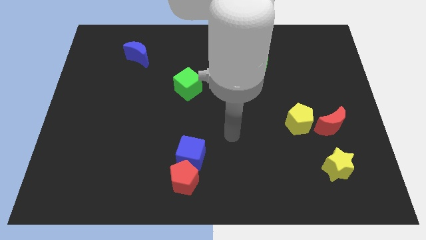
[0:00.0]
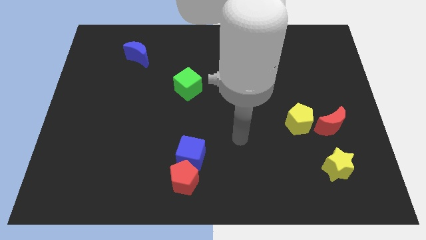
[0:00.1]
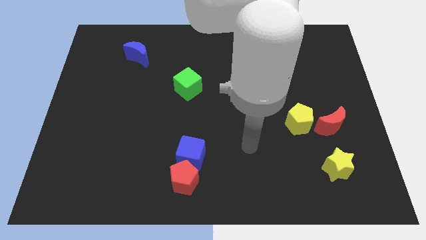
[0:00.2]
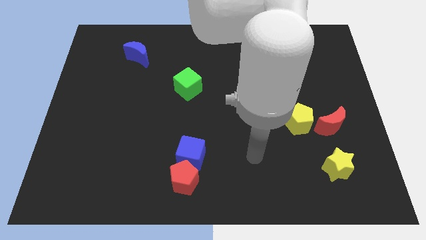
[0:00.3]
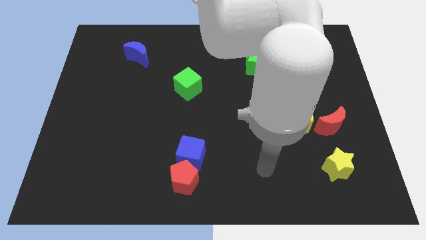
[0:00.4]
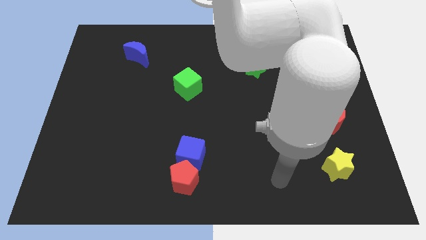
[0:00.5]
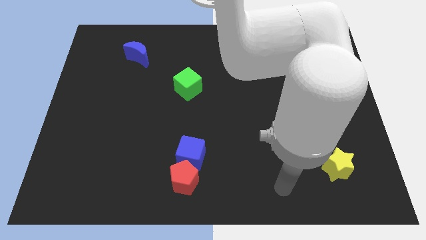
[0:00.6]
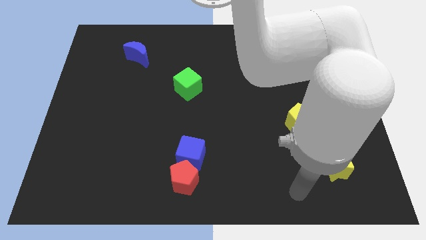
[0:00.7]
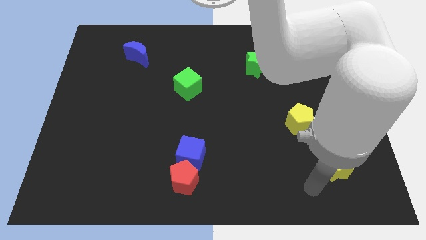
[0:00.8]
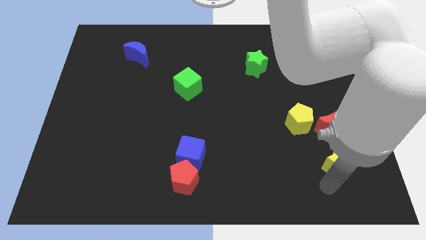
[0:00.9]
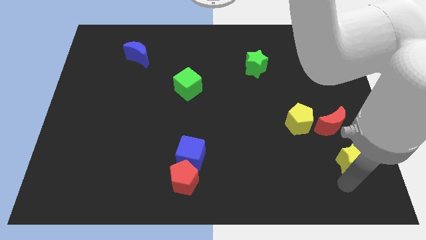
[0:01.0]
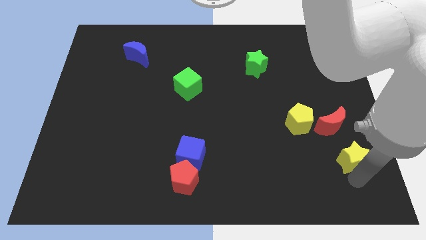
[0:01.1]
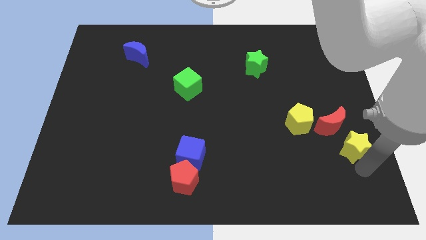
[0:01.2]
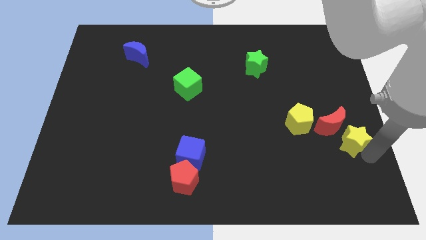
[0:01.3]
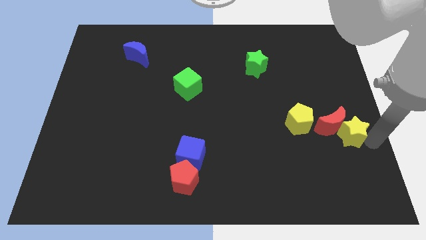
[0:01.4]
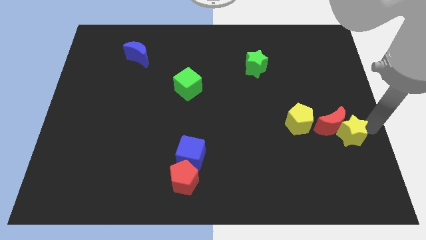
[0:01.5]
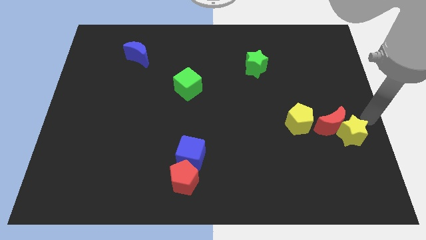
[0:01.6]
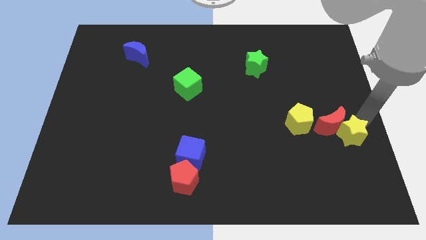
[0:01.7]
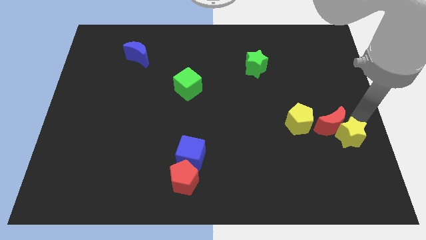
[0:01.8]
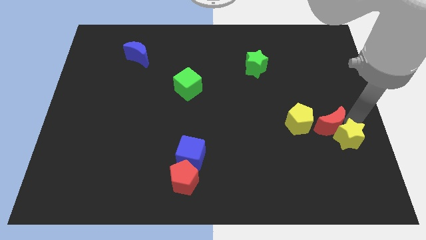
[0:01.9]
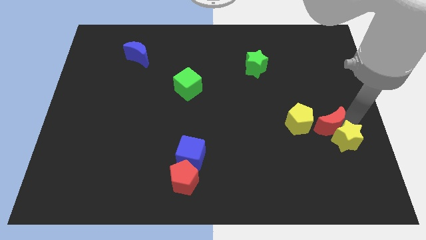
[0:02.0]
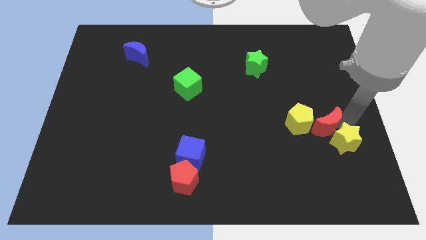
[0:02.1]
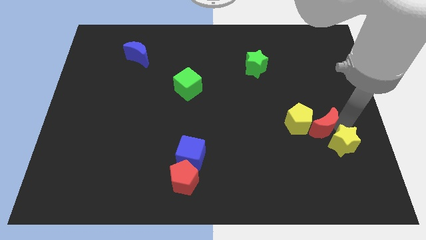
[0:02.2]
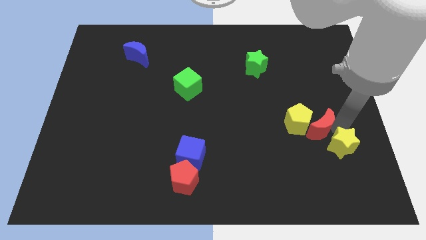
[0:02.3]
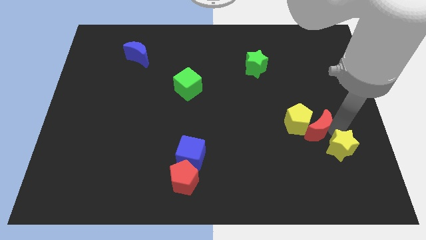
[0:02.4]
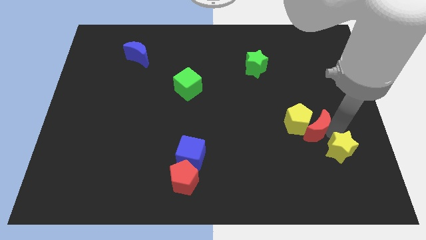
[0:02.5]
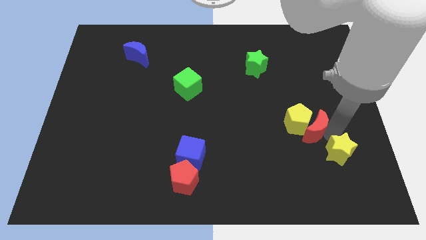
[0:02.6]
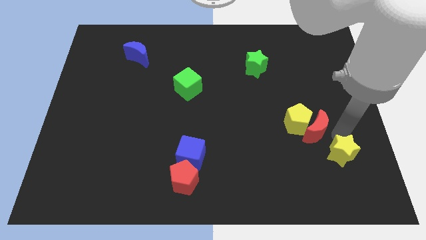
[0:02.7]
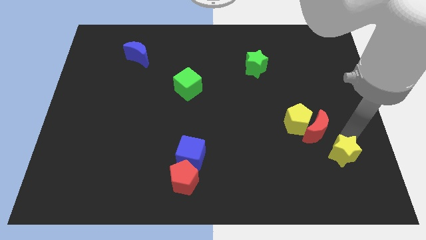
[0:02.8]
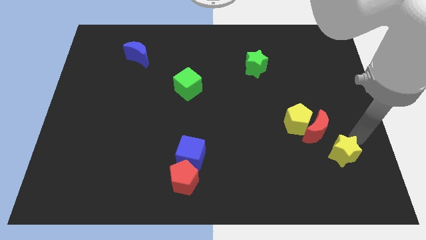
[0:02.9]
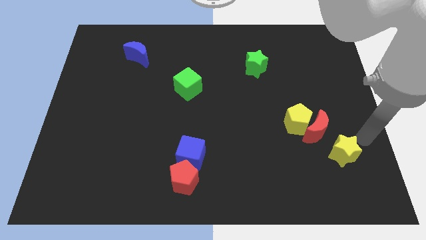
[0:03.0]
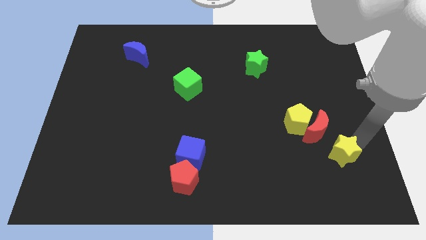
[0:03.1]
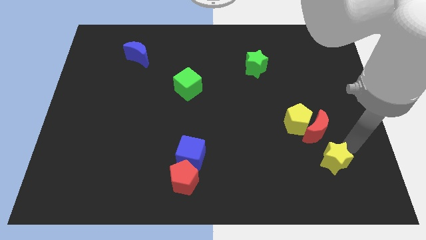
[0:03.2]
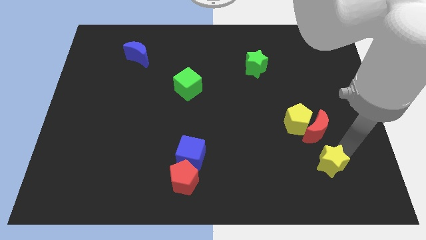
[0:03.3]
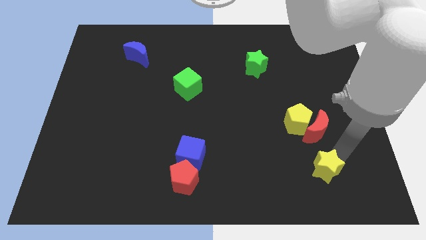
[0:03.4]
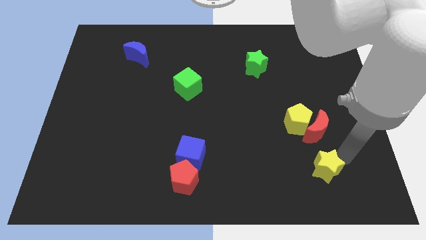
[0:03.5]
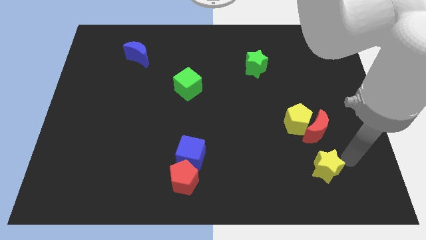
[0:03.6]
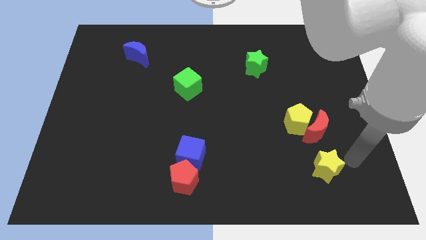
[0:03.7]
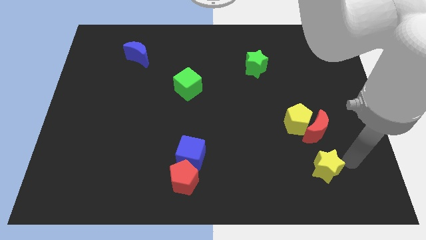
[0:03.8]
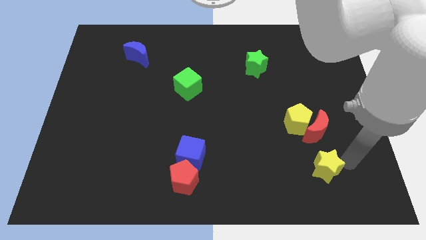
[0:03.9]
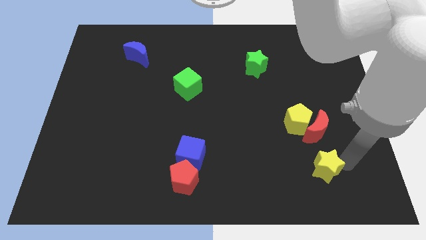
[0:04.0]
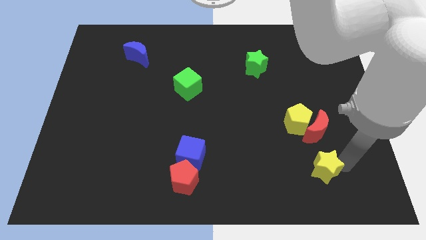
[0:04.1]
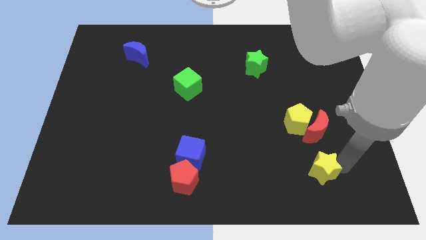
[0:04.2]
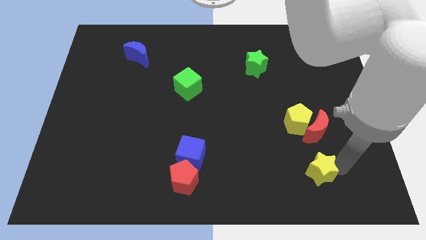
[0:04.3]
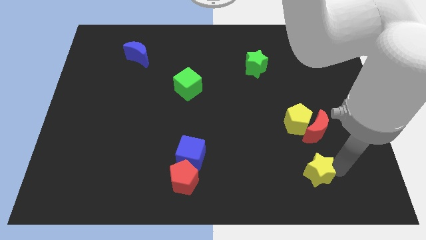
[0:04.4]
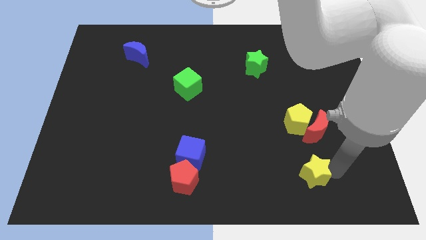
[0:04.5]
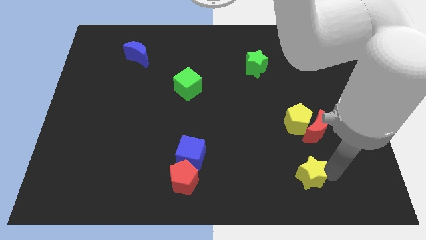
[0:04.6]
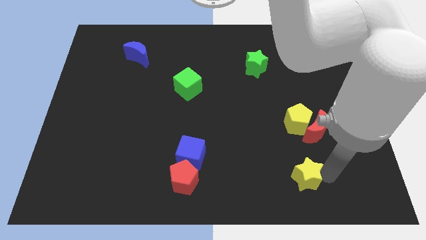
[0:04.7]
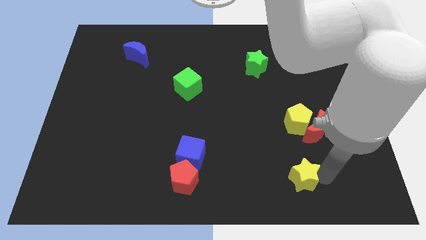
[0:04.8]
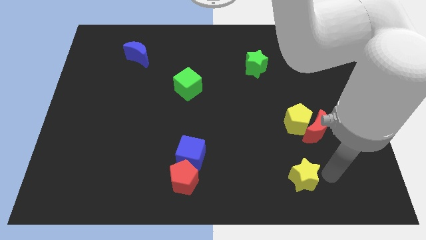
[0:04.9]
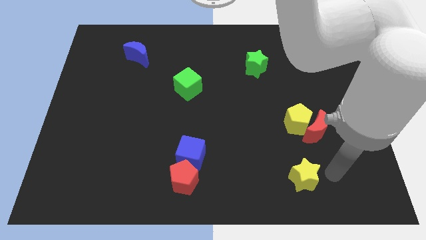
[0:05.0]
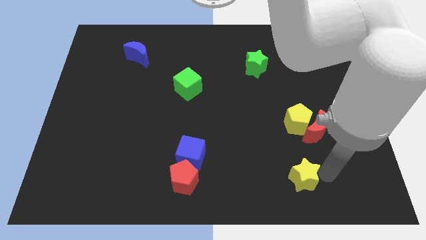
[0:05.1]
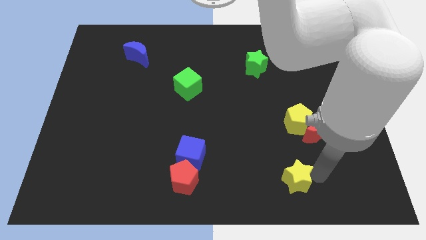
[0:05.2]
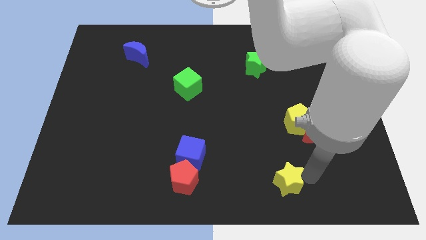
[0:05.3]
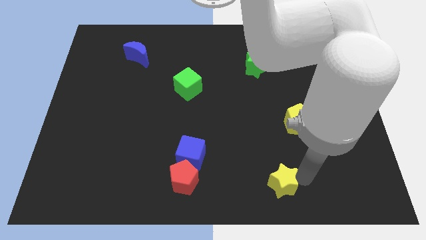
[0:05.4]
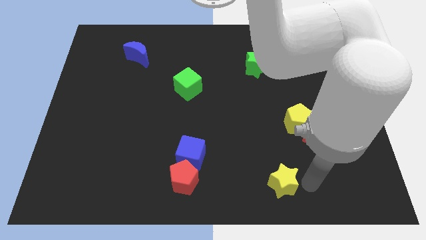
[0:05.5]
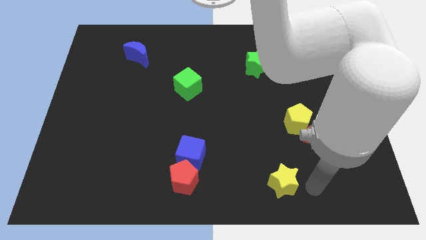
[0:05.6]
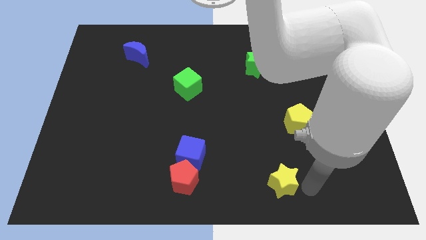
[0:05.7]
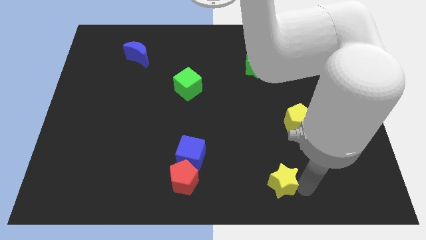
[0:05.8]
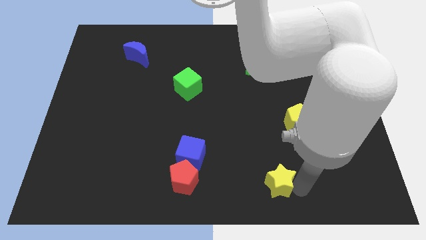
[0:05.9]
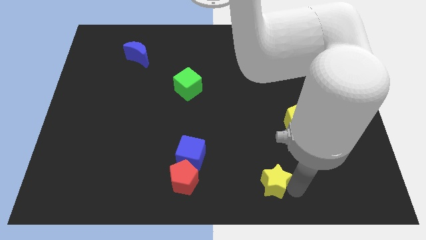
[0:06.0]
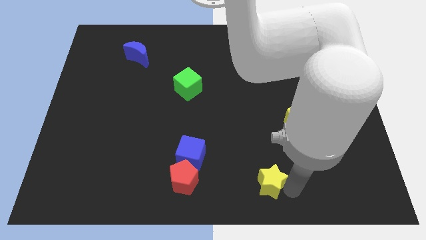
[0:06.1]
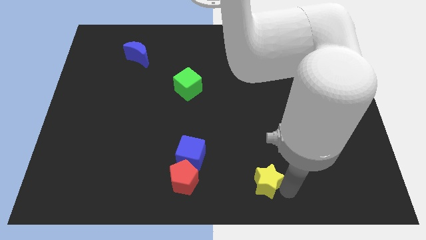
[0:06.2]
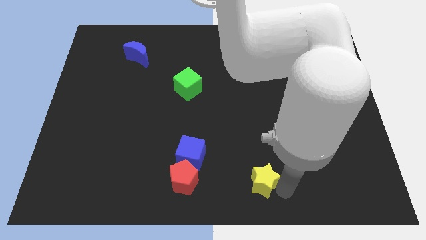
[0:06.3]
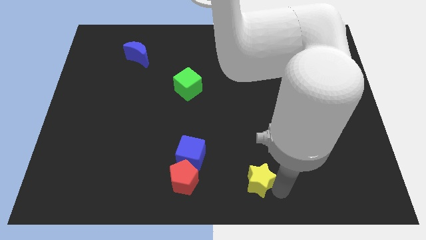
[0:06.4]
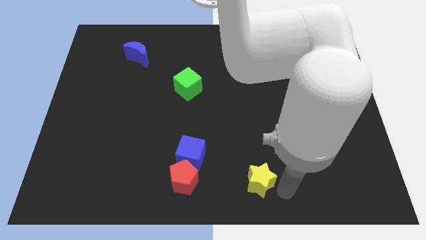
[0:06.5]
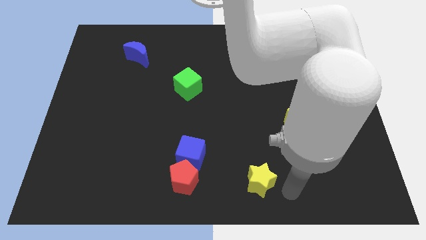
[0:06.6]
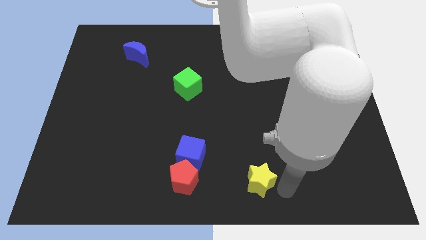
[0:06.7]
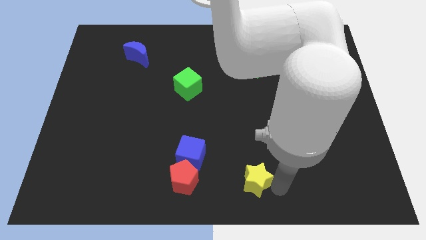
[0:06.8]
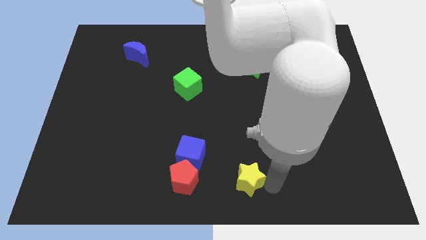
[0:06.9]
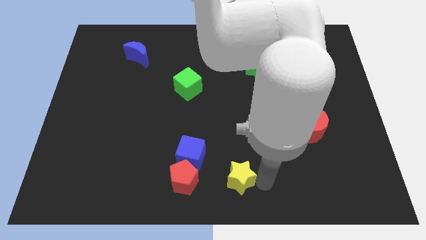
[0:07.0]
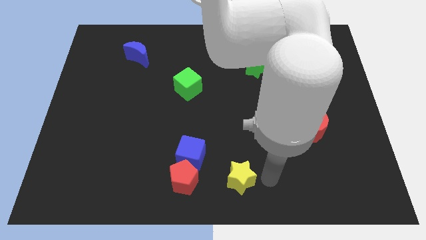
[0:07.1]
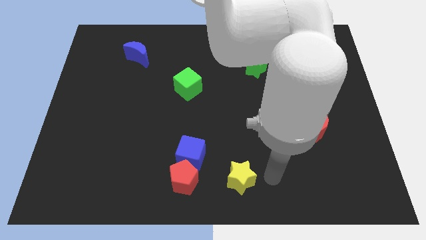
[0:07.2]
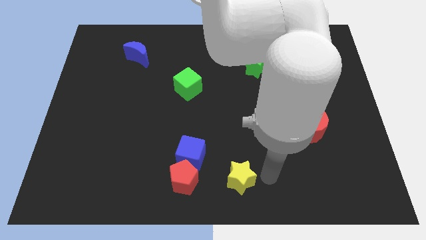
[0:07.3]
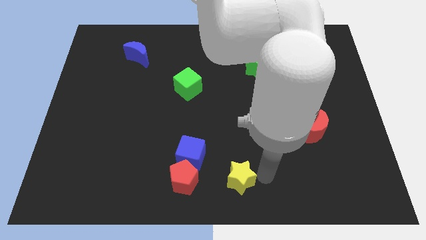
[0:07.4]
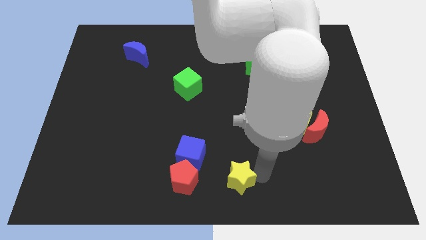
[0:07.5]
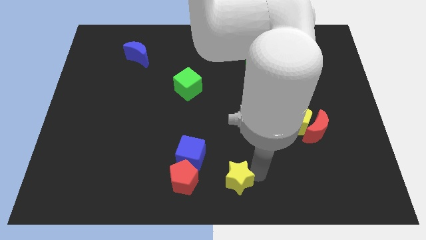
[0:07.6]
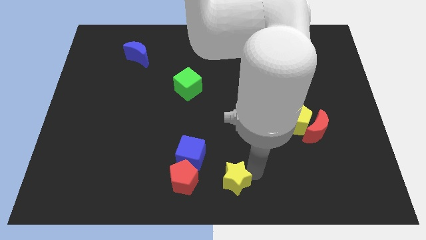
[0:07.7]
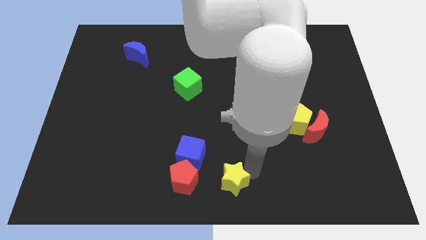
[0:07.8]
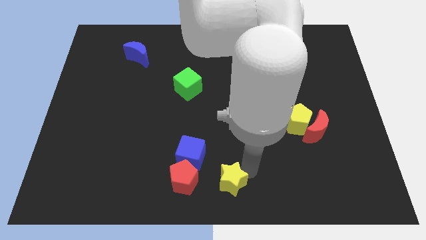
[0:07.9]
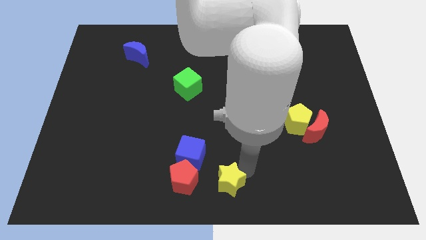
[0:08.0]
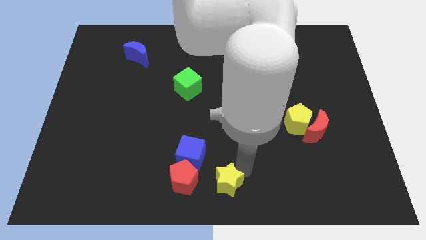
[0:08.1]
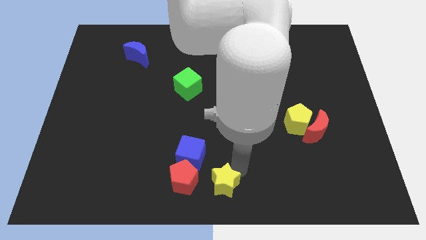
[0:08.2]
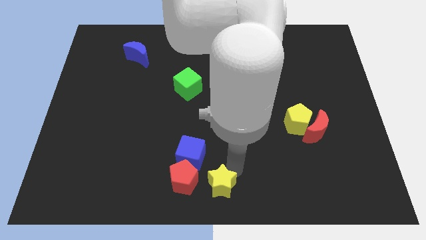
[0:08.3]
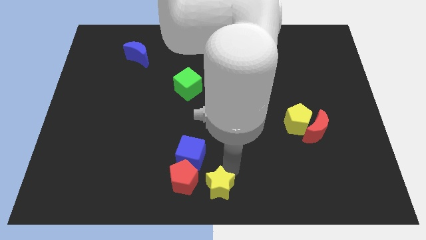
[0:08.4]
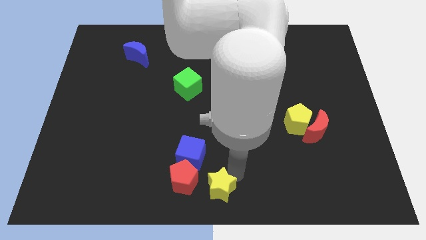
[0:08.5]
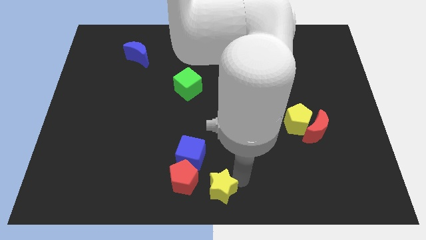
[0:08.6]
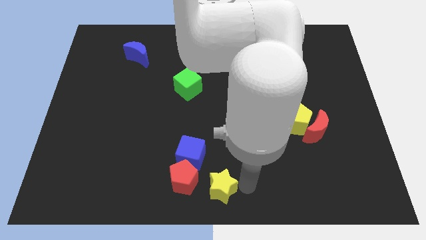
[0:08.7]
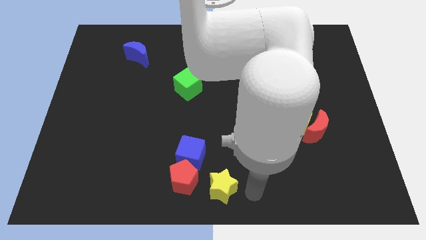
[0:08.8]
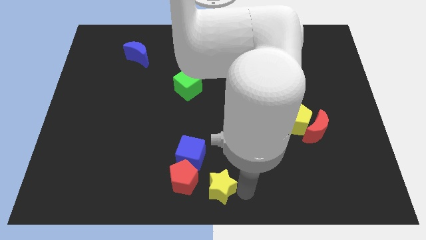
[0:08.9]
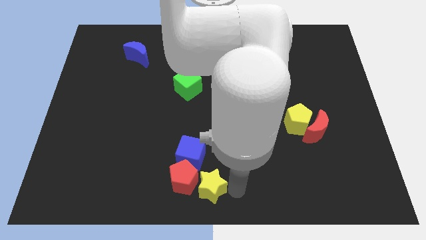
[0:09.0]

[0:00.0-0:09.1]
move the yellow star to the red pentagon
